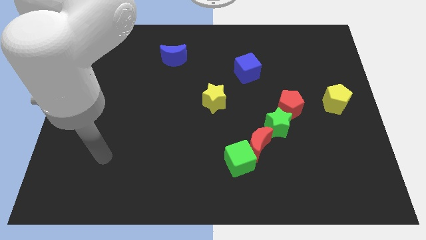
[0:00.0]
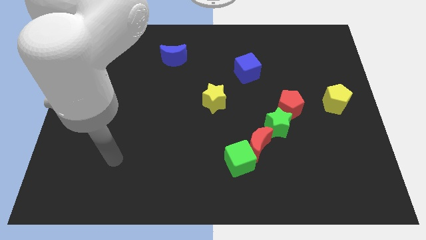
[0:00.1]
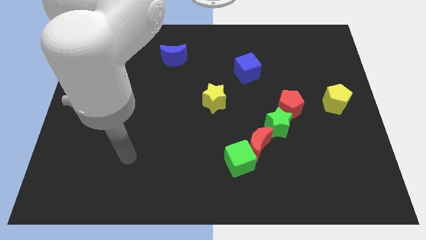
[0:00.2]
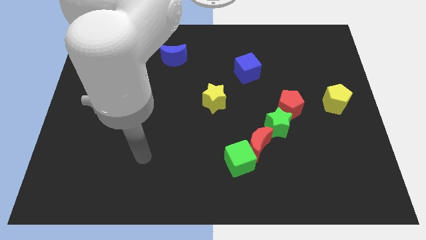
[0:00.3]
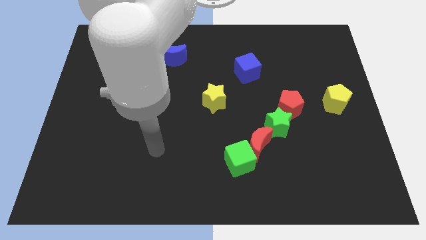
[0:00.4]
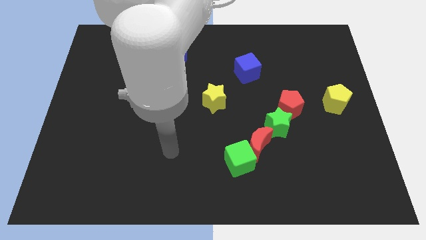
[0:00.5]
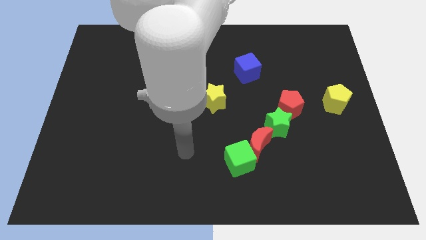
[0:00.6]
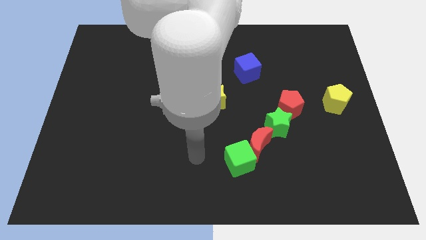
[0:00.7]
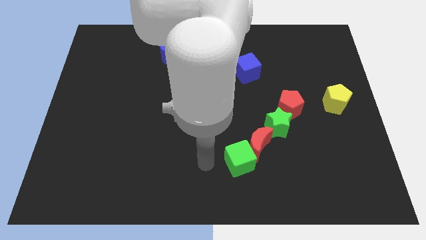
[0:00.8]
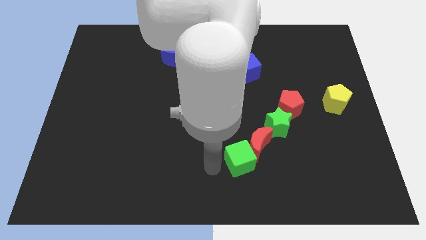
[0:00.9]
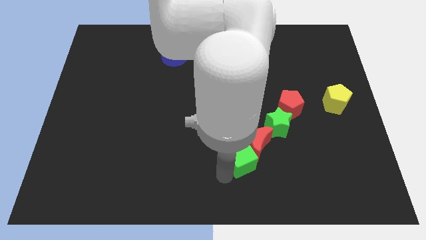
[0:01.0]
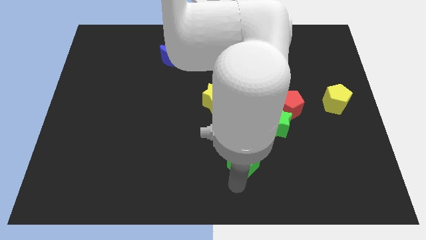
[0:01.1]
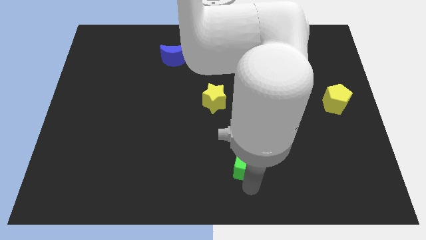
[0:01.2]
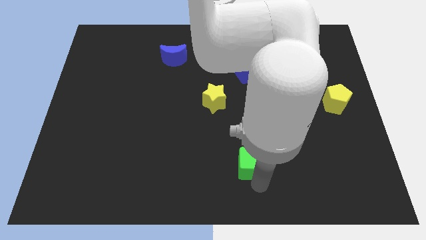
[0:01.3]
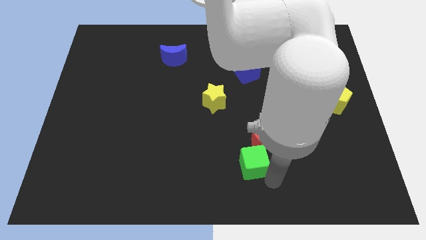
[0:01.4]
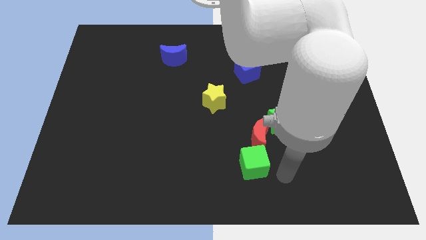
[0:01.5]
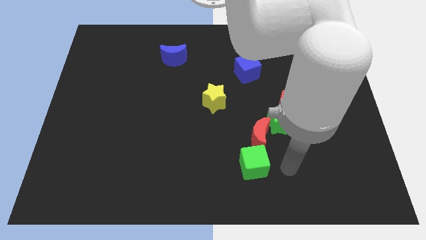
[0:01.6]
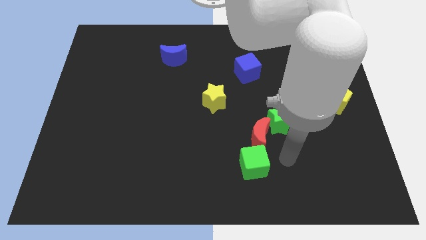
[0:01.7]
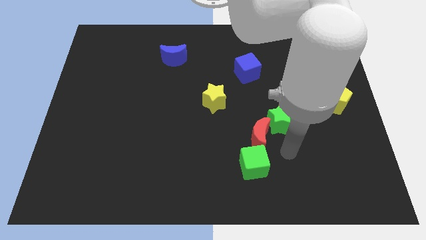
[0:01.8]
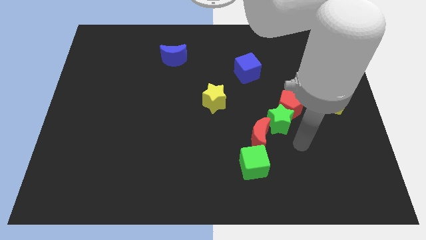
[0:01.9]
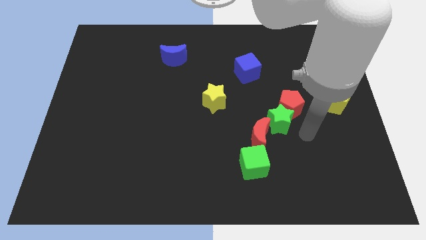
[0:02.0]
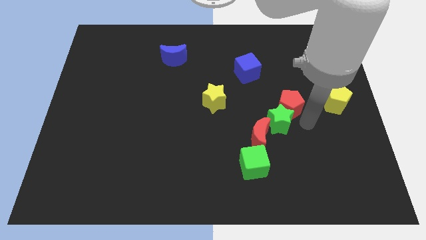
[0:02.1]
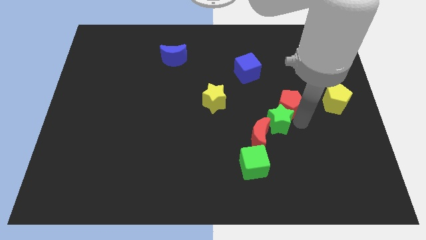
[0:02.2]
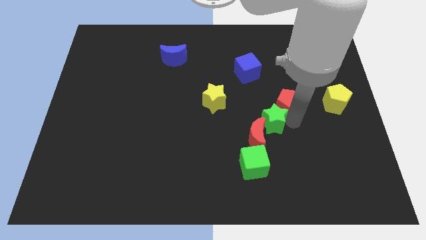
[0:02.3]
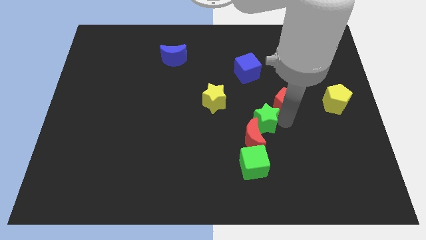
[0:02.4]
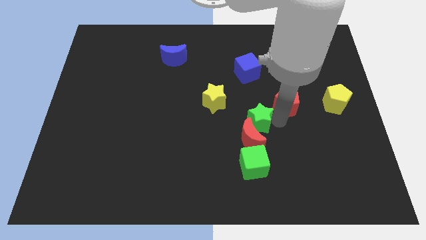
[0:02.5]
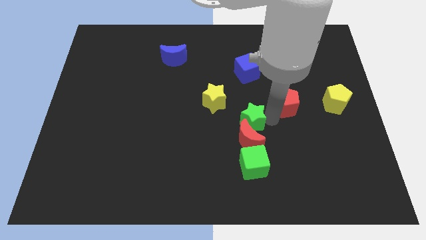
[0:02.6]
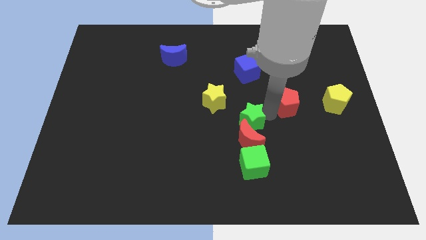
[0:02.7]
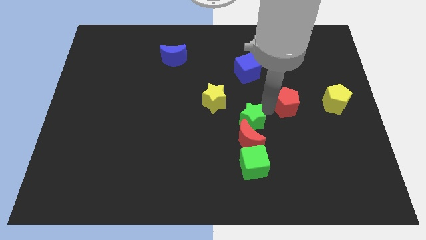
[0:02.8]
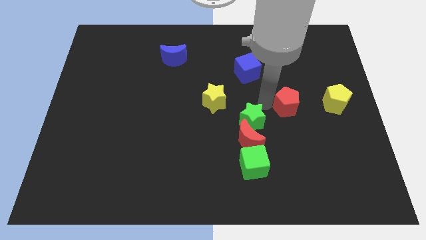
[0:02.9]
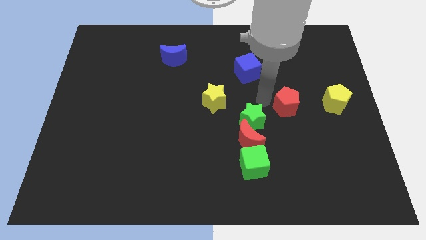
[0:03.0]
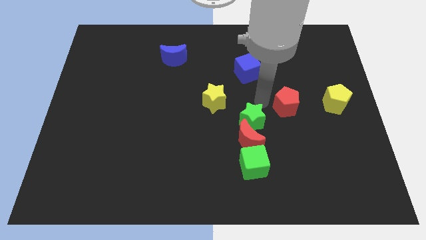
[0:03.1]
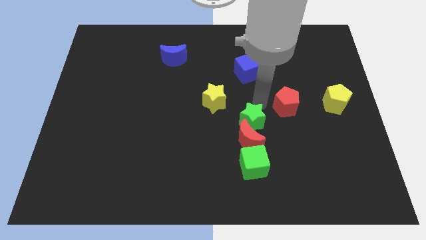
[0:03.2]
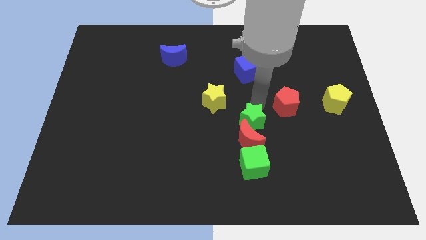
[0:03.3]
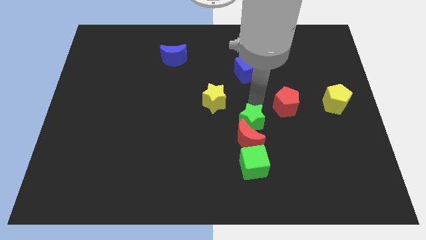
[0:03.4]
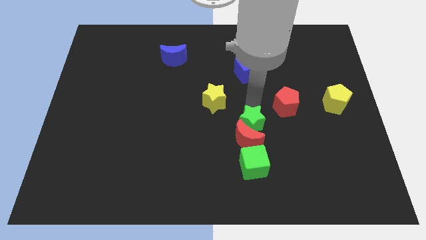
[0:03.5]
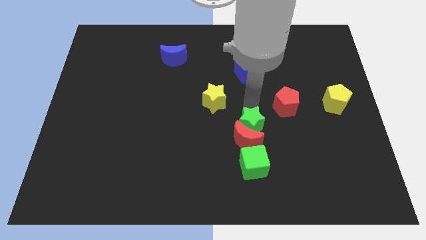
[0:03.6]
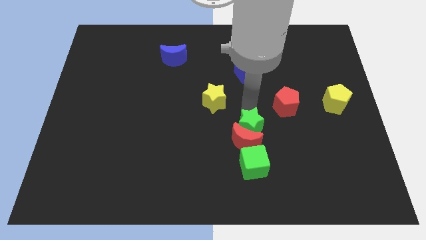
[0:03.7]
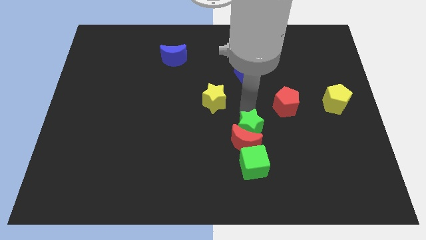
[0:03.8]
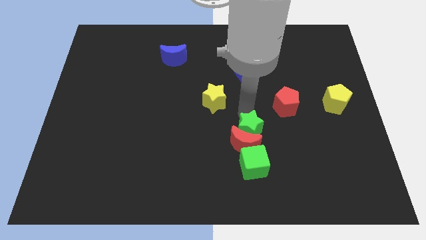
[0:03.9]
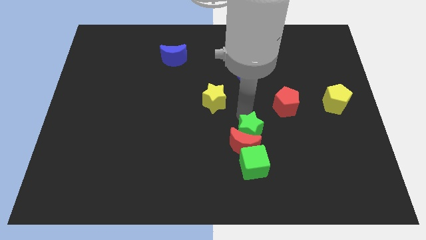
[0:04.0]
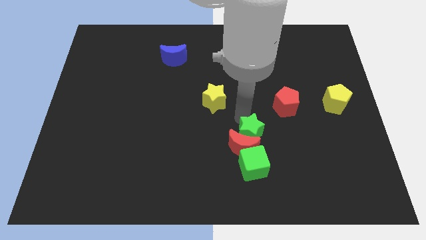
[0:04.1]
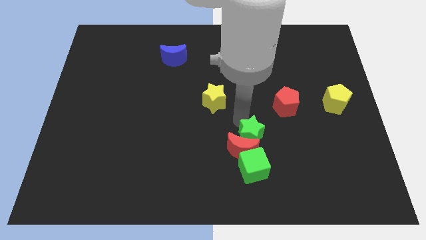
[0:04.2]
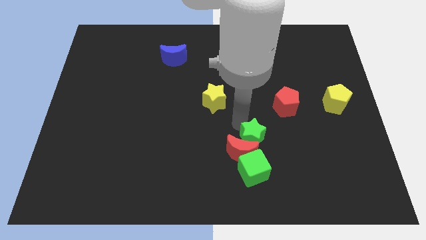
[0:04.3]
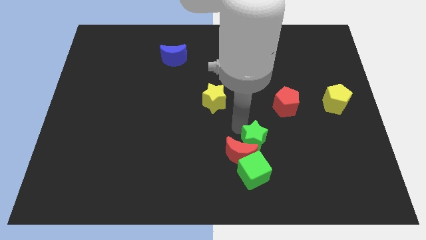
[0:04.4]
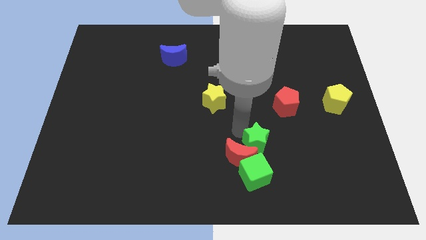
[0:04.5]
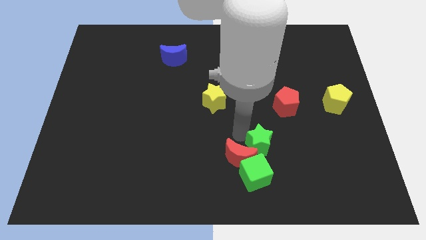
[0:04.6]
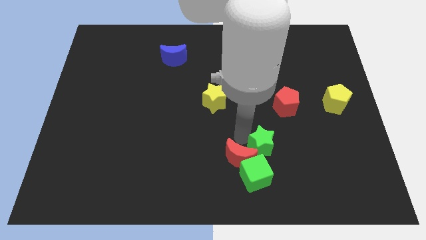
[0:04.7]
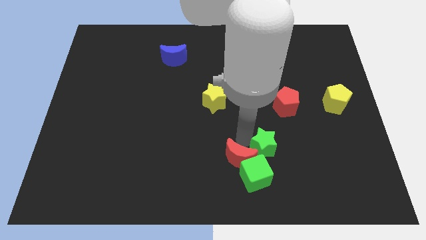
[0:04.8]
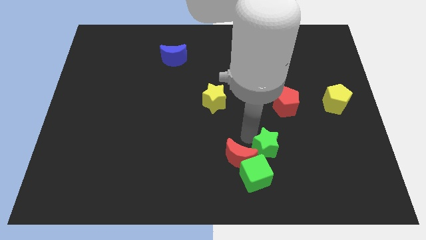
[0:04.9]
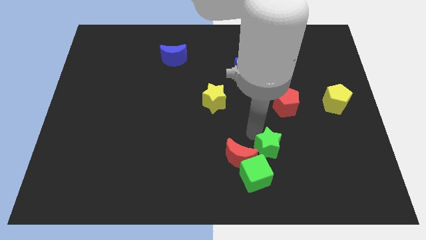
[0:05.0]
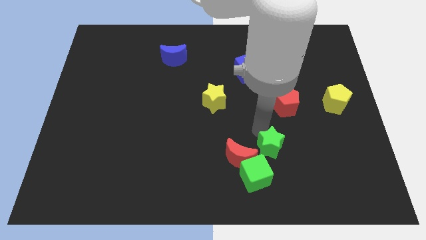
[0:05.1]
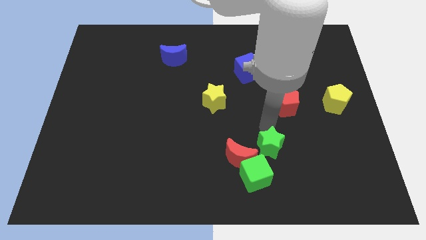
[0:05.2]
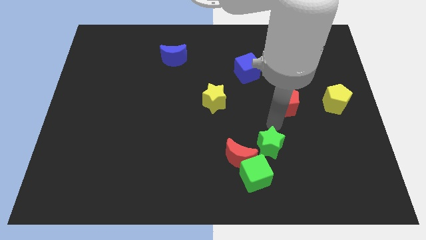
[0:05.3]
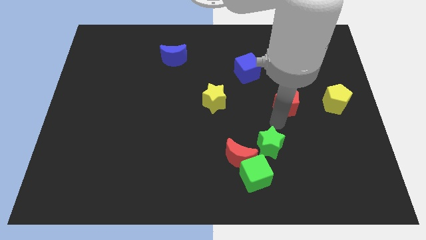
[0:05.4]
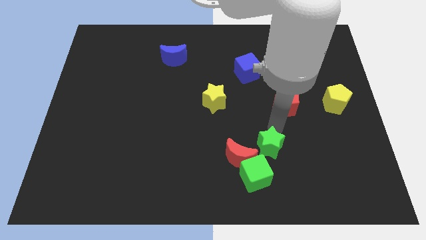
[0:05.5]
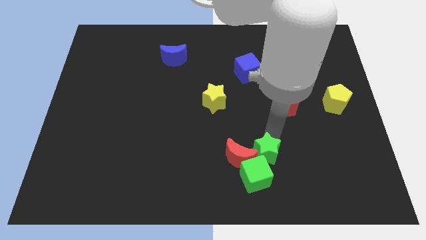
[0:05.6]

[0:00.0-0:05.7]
push the green star close to the green cube

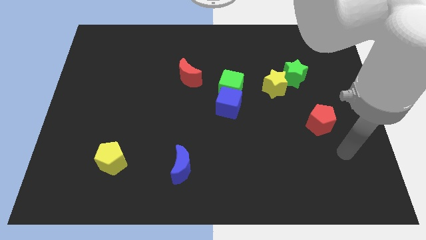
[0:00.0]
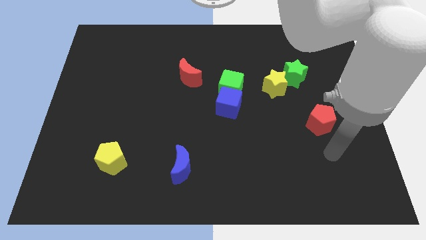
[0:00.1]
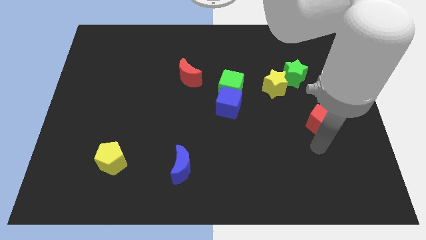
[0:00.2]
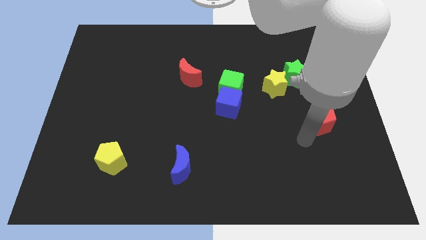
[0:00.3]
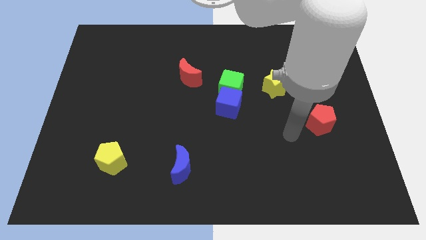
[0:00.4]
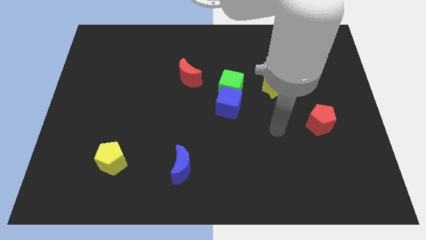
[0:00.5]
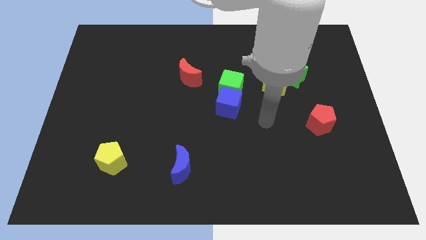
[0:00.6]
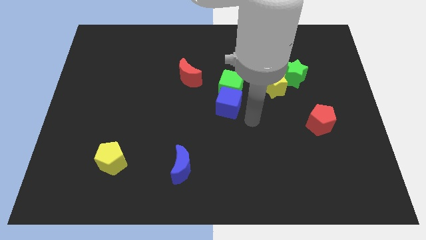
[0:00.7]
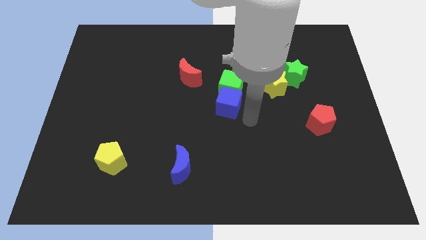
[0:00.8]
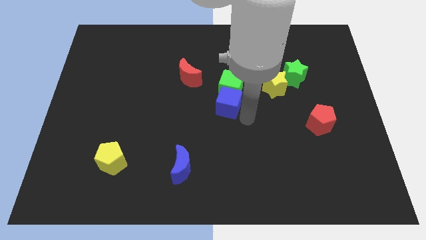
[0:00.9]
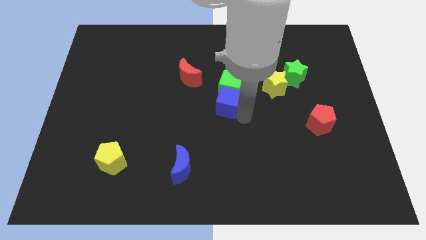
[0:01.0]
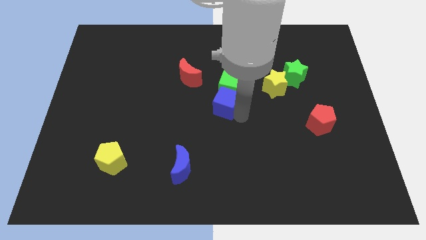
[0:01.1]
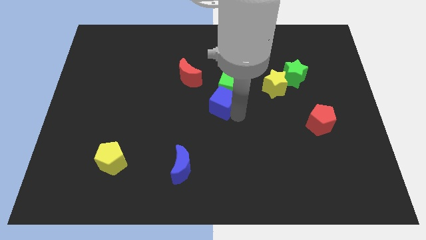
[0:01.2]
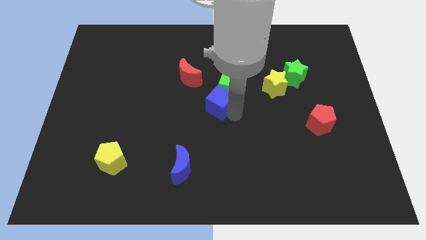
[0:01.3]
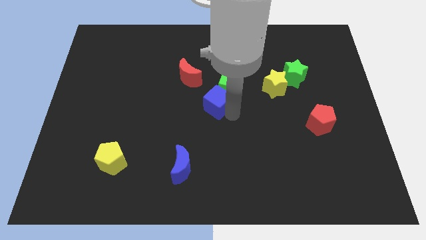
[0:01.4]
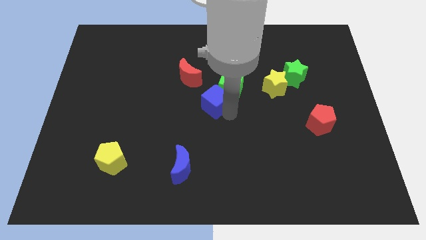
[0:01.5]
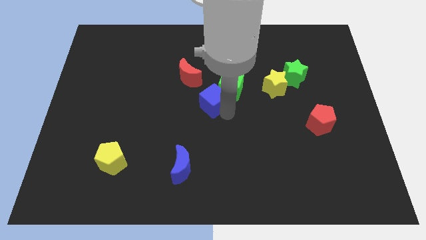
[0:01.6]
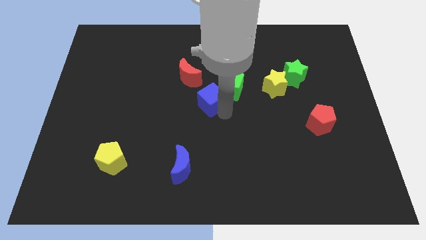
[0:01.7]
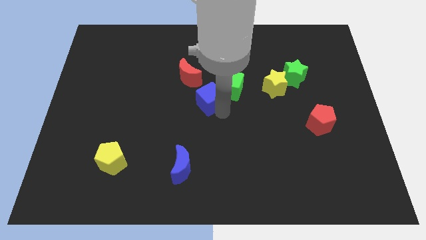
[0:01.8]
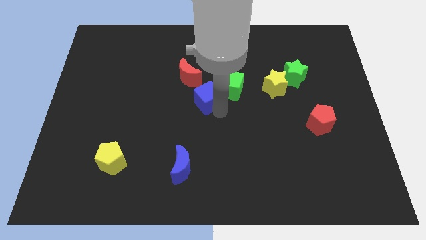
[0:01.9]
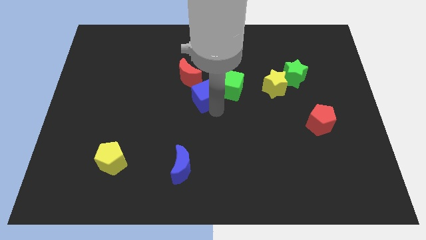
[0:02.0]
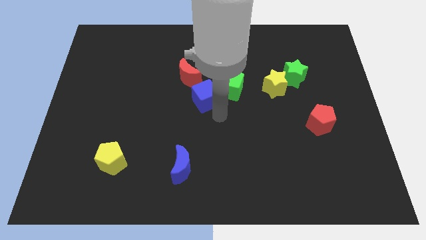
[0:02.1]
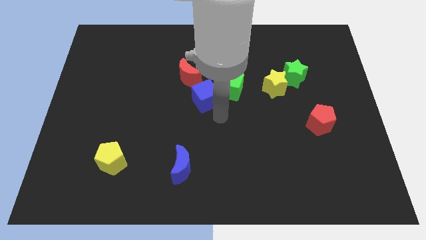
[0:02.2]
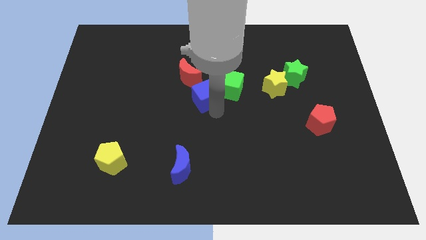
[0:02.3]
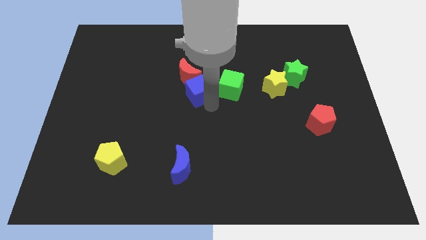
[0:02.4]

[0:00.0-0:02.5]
move the blue cube next to the red moon
